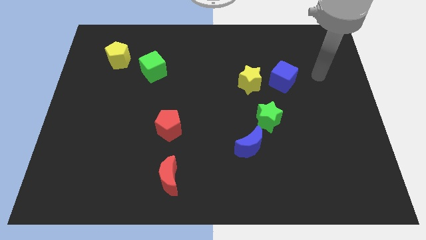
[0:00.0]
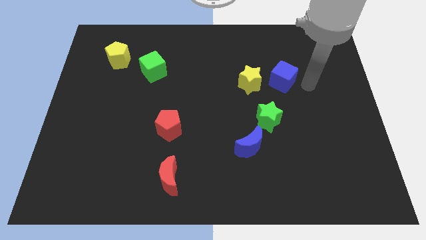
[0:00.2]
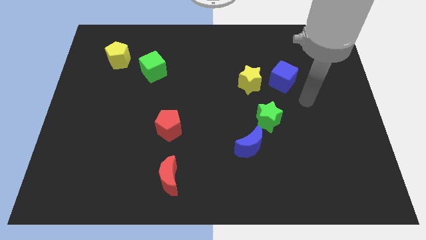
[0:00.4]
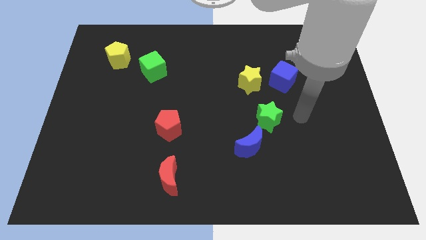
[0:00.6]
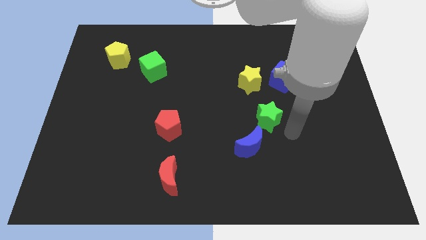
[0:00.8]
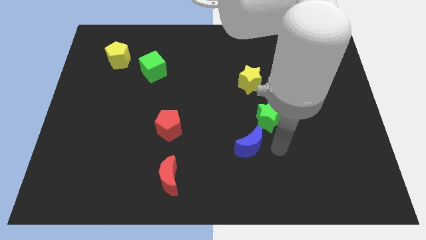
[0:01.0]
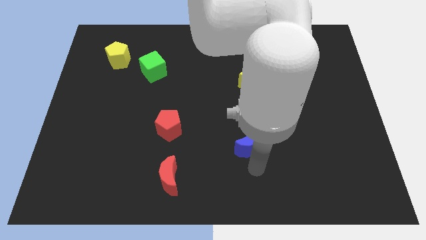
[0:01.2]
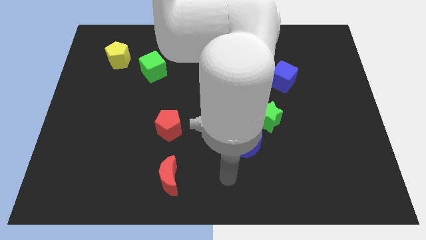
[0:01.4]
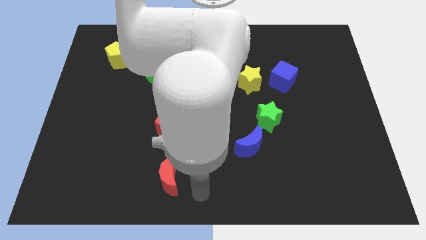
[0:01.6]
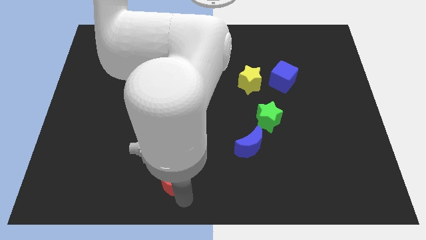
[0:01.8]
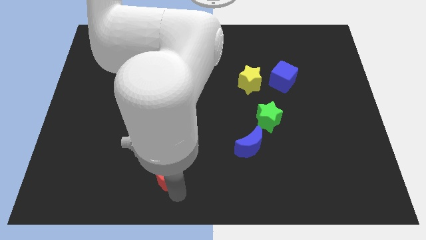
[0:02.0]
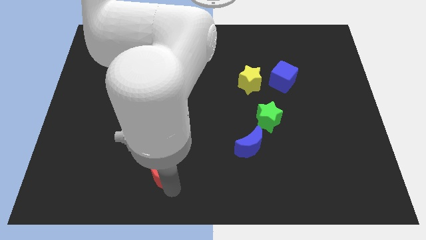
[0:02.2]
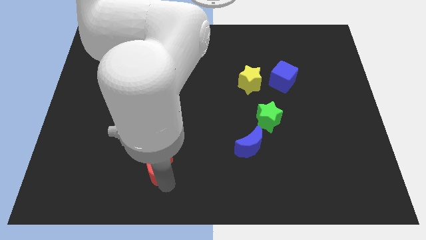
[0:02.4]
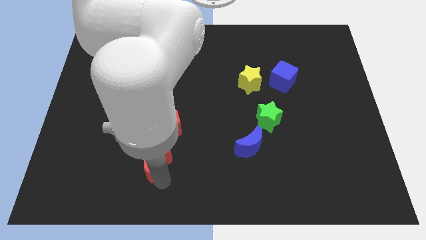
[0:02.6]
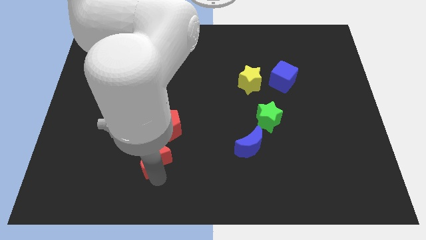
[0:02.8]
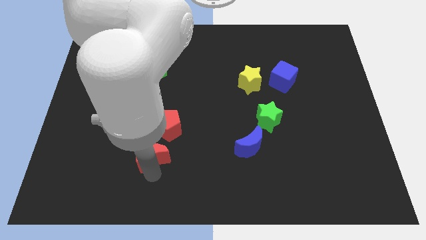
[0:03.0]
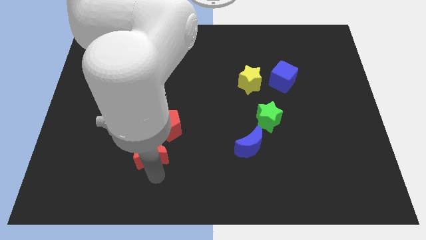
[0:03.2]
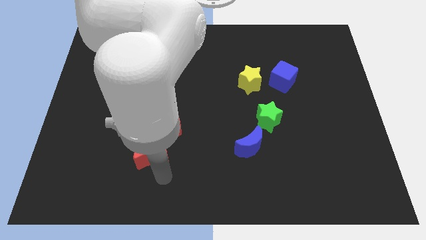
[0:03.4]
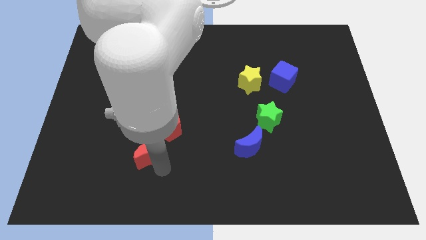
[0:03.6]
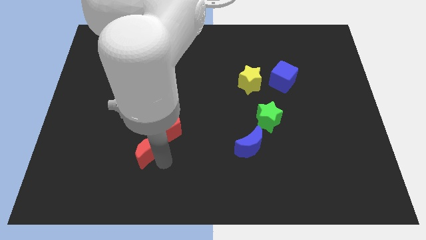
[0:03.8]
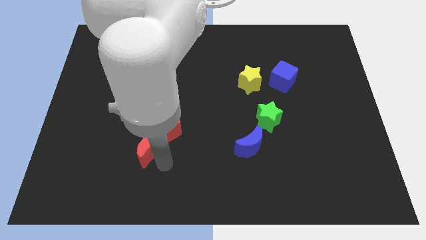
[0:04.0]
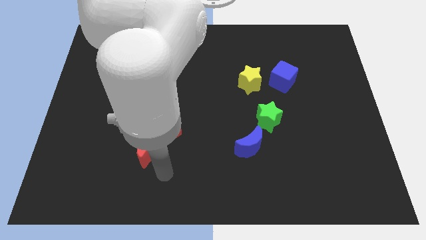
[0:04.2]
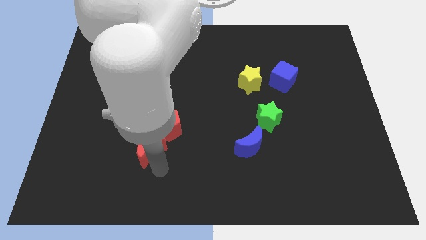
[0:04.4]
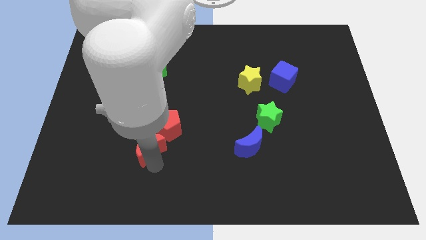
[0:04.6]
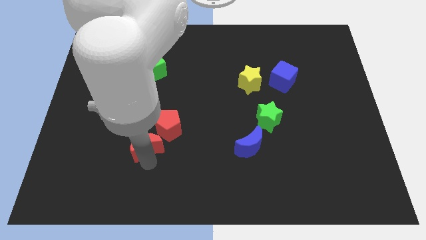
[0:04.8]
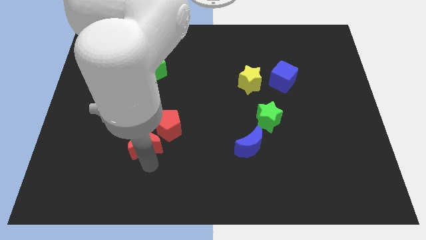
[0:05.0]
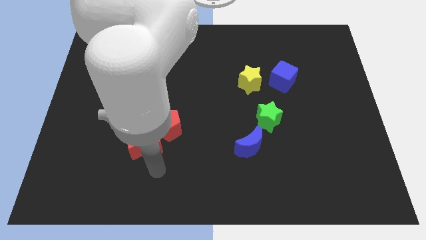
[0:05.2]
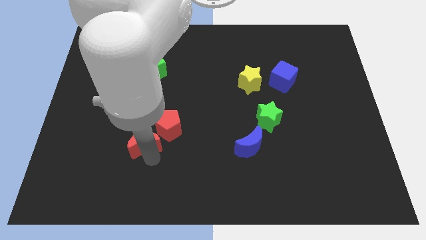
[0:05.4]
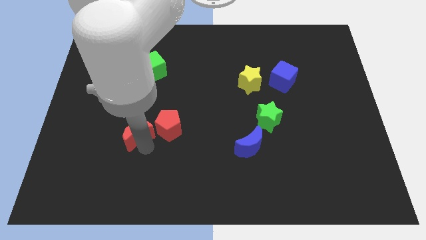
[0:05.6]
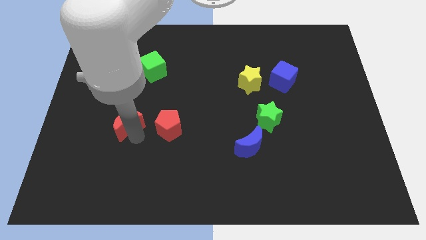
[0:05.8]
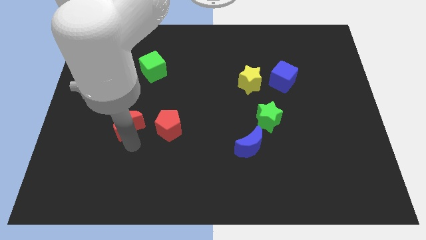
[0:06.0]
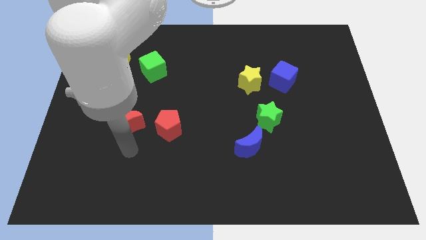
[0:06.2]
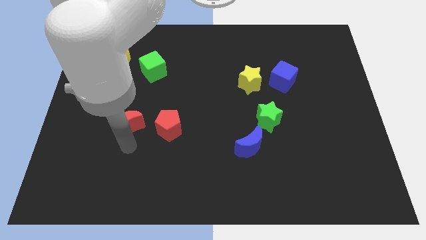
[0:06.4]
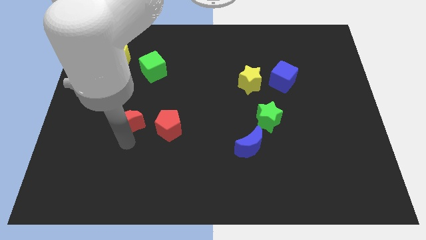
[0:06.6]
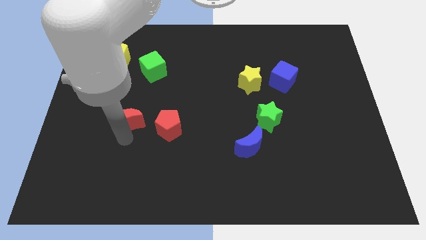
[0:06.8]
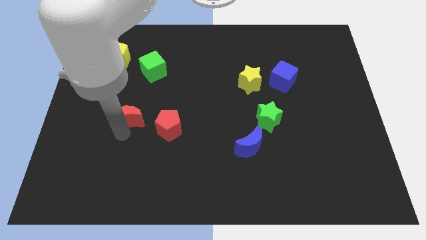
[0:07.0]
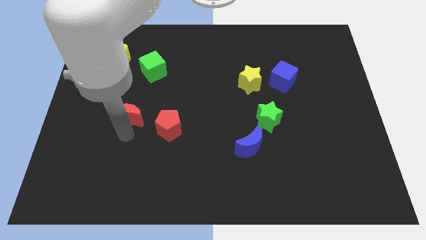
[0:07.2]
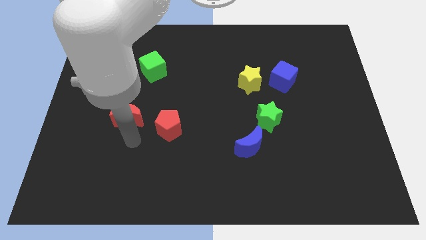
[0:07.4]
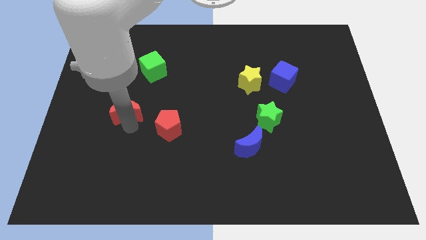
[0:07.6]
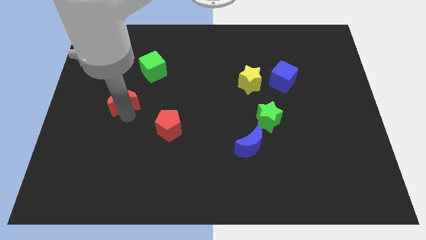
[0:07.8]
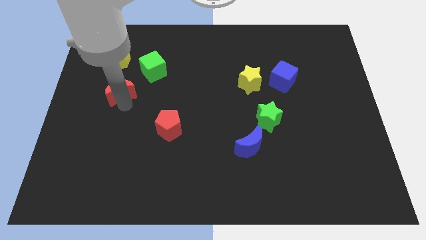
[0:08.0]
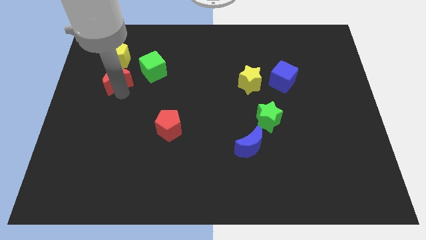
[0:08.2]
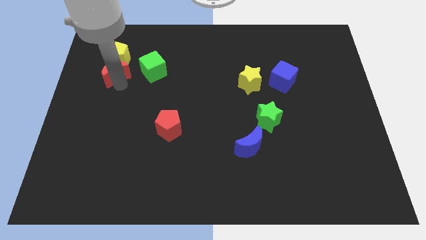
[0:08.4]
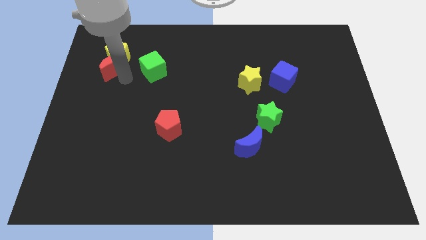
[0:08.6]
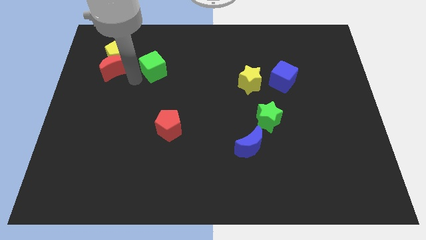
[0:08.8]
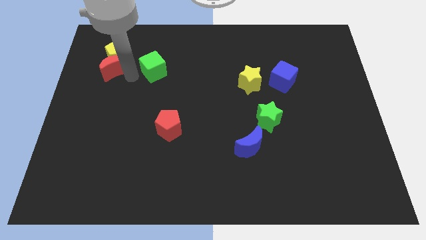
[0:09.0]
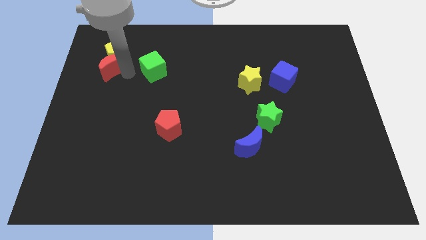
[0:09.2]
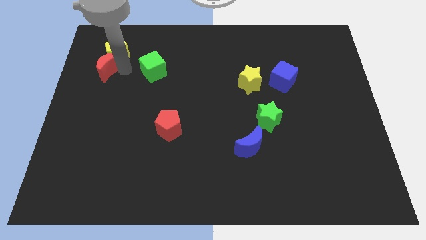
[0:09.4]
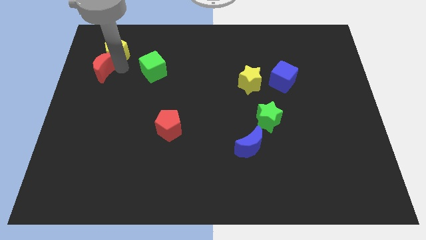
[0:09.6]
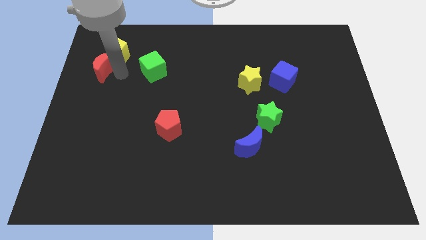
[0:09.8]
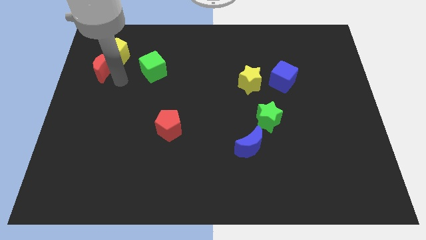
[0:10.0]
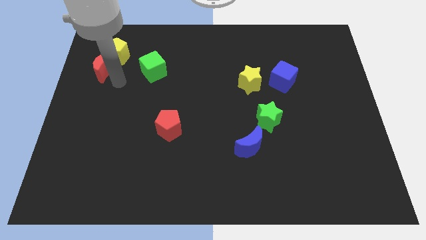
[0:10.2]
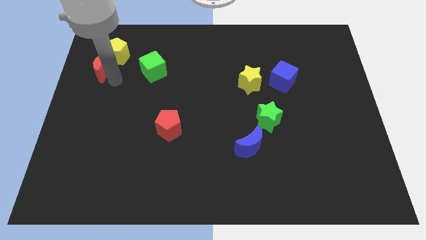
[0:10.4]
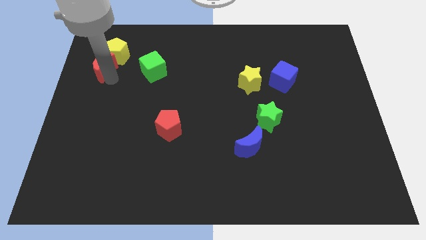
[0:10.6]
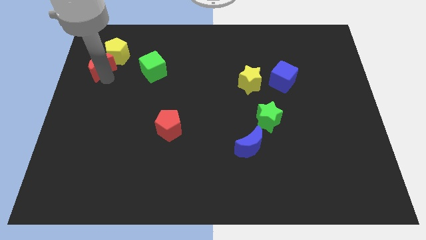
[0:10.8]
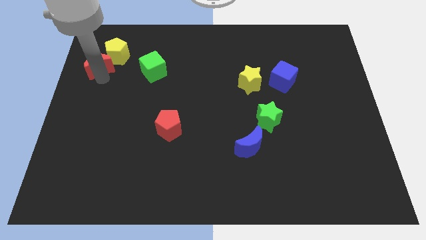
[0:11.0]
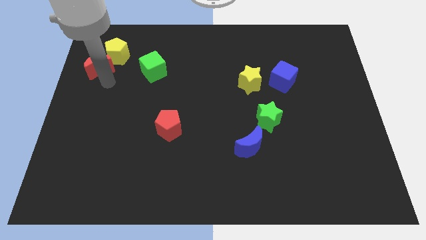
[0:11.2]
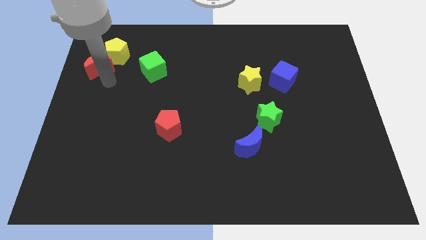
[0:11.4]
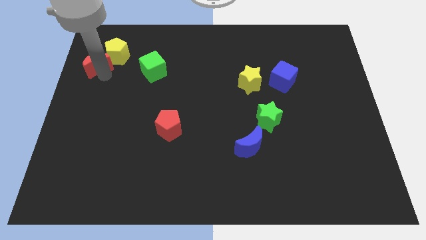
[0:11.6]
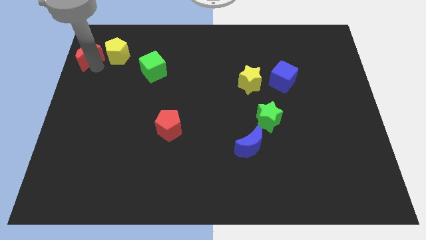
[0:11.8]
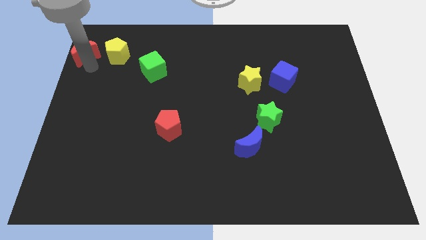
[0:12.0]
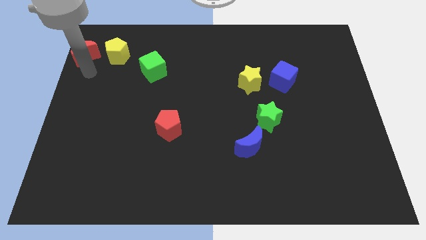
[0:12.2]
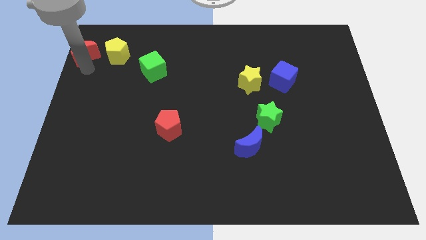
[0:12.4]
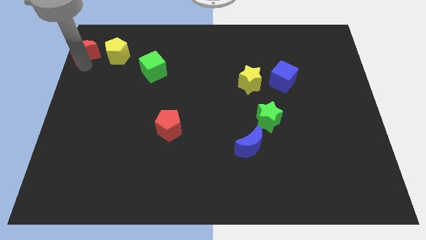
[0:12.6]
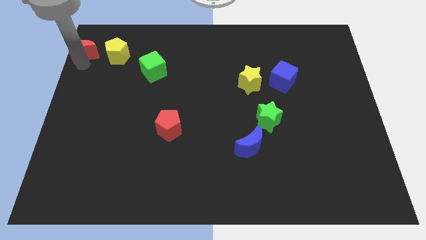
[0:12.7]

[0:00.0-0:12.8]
move the red moon to the top left of the board

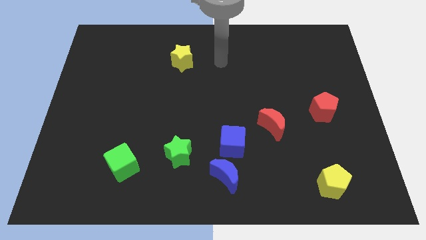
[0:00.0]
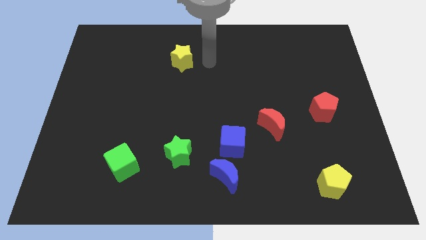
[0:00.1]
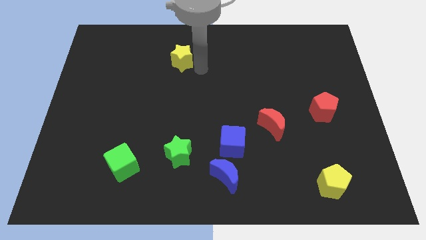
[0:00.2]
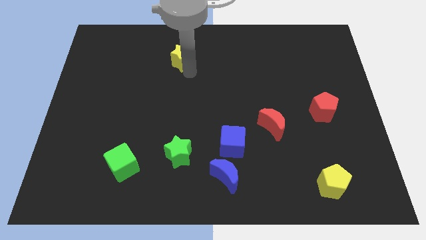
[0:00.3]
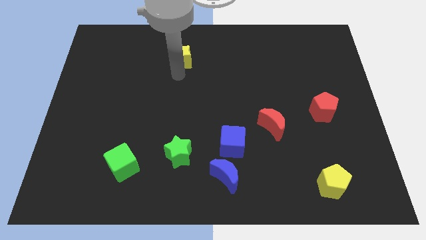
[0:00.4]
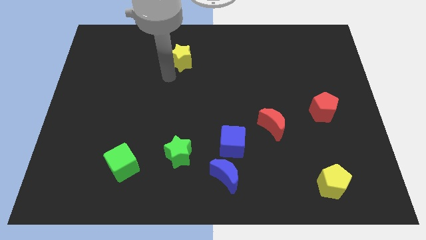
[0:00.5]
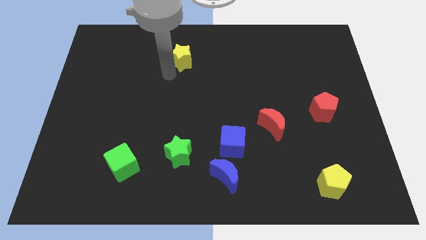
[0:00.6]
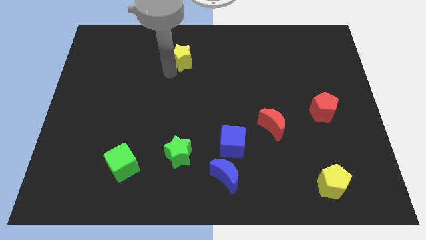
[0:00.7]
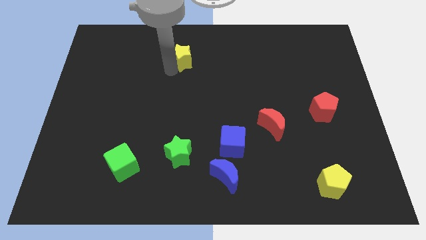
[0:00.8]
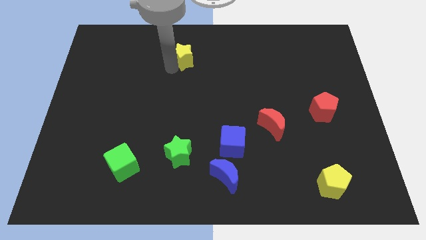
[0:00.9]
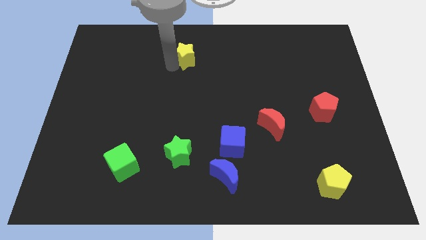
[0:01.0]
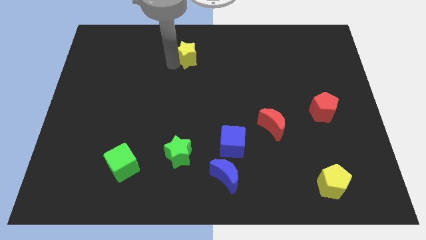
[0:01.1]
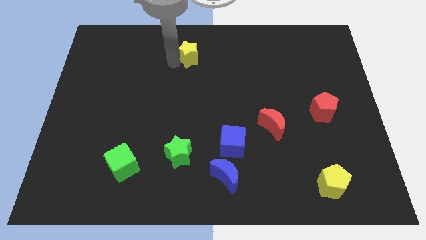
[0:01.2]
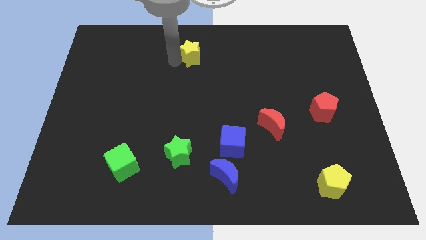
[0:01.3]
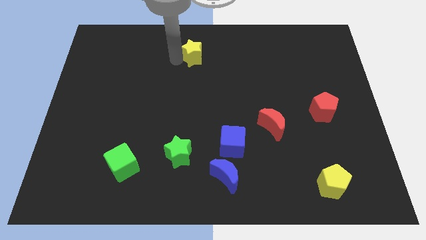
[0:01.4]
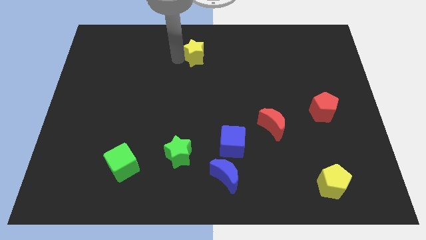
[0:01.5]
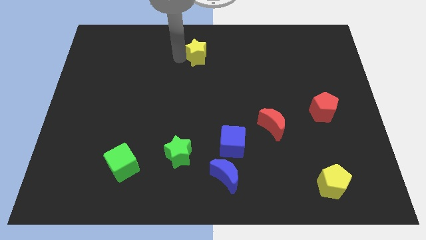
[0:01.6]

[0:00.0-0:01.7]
slide the yellow star to the towards your base
